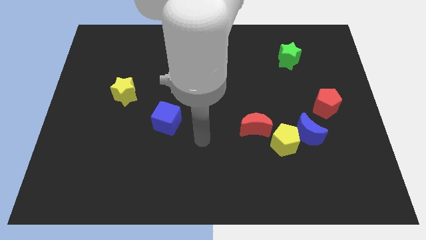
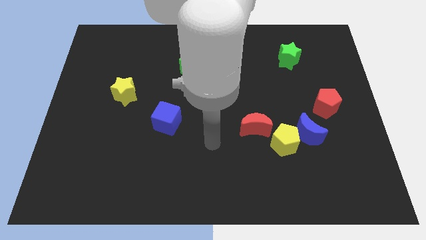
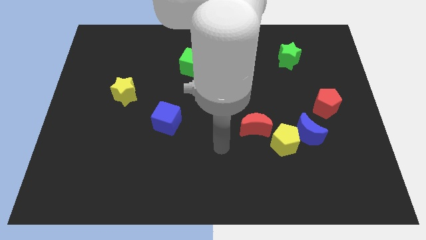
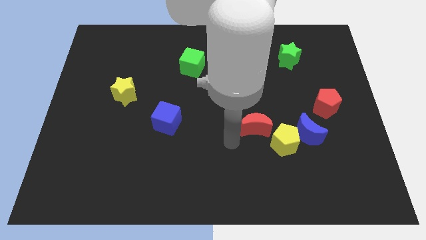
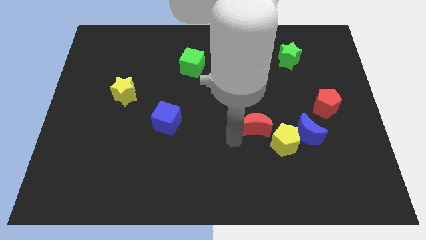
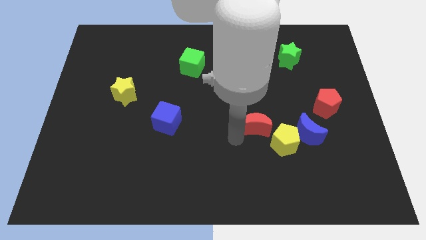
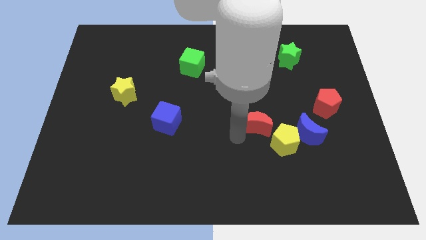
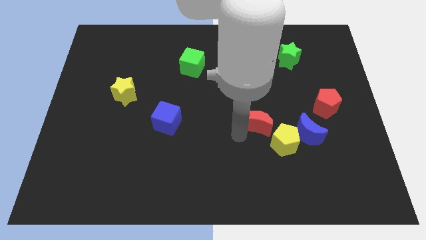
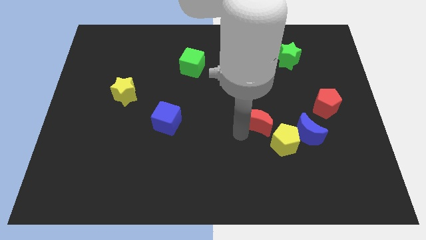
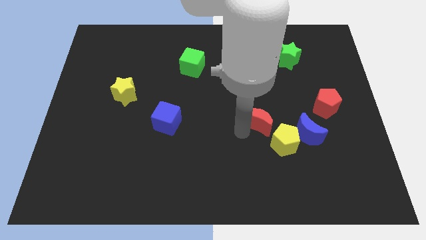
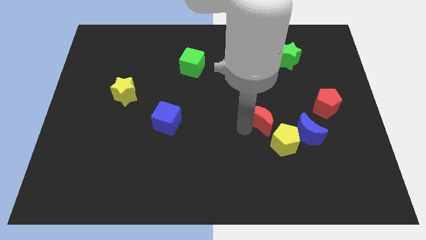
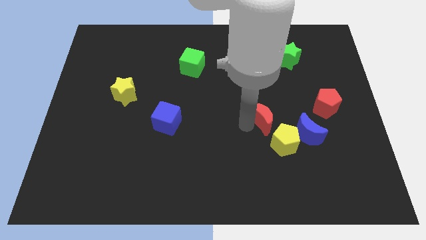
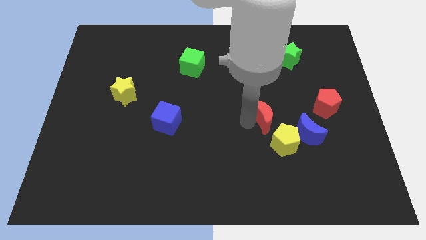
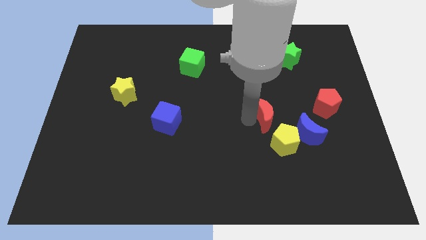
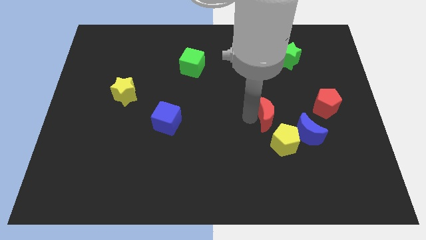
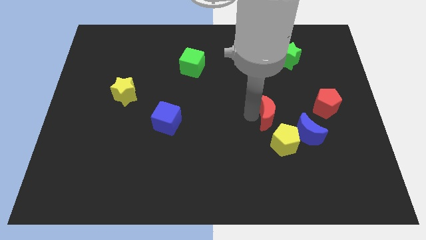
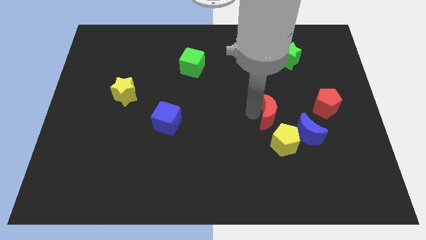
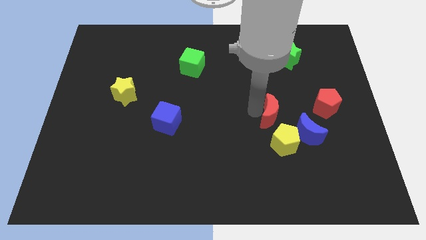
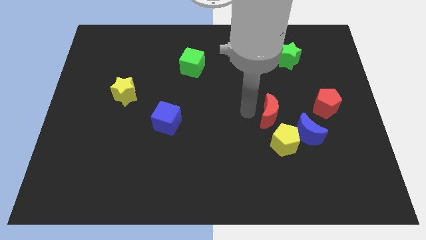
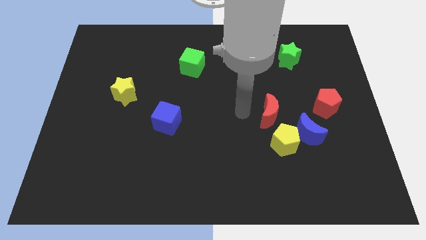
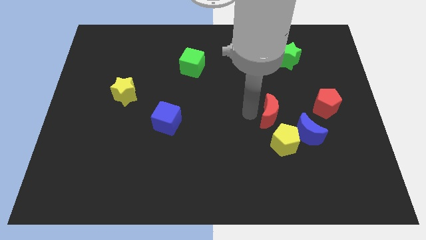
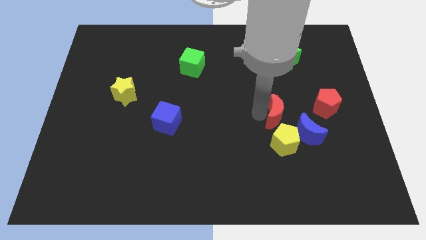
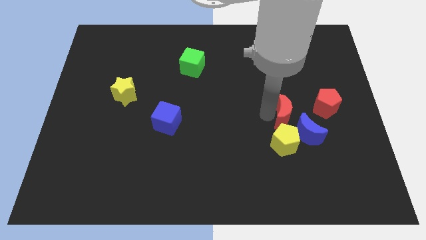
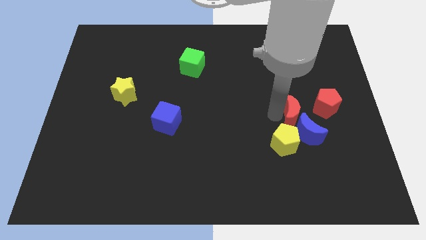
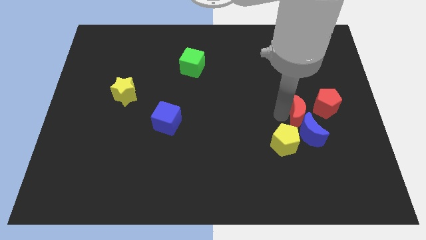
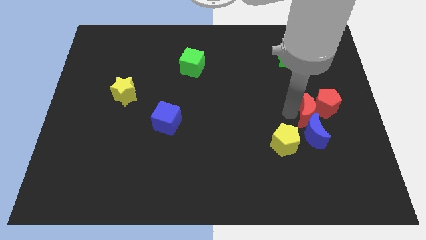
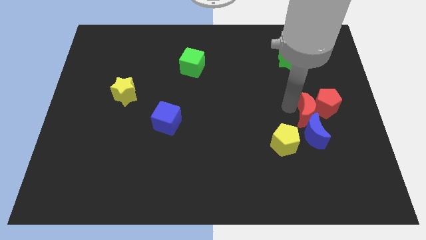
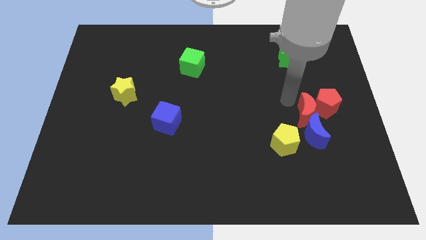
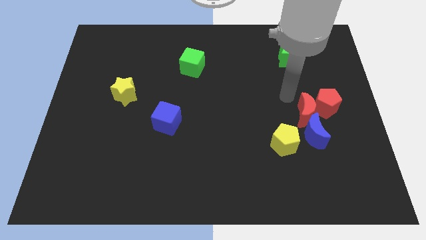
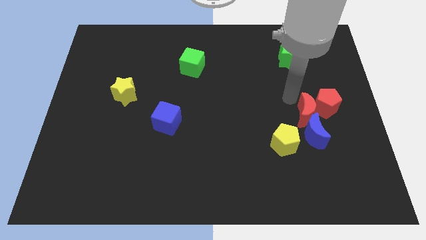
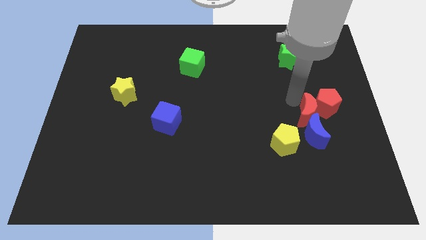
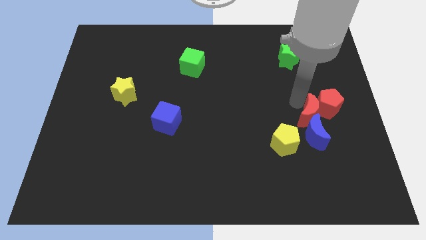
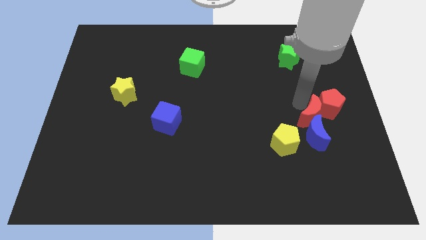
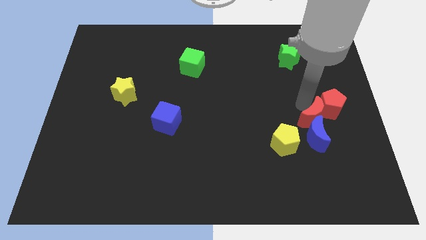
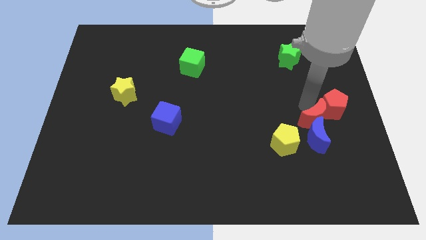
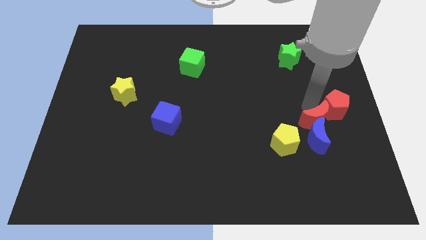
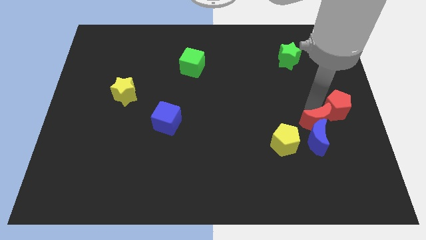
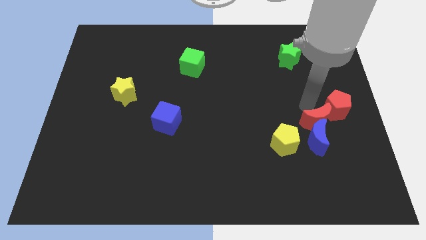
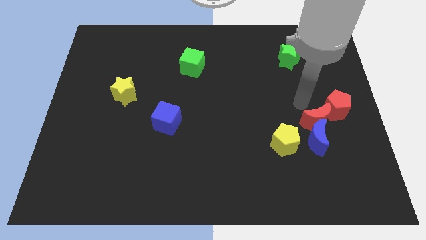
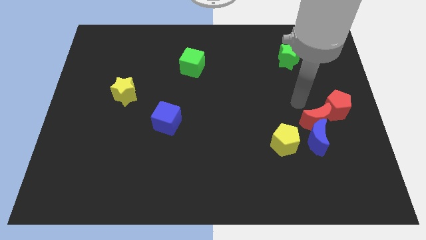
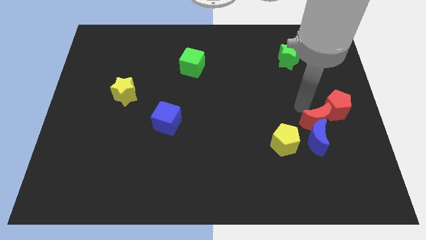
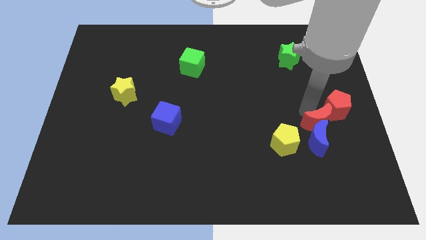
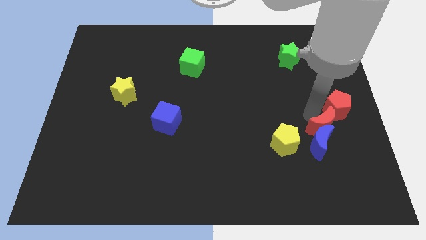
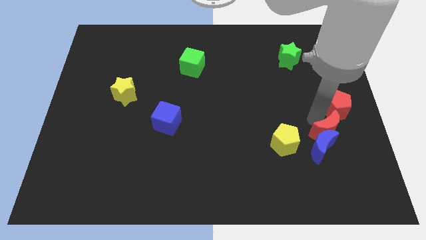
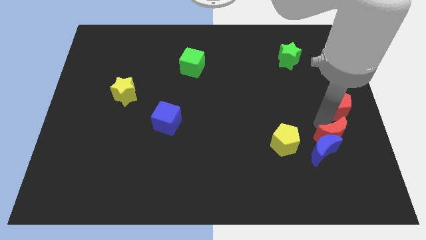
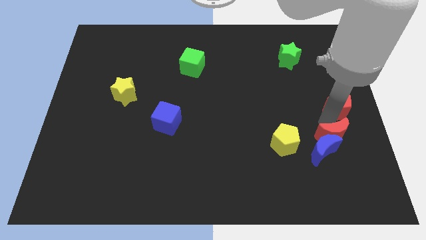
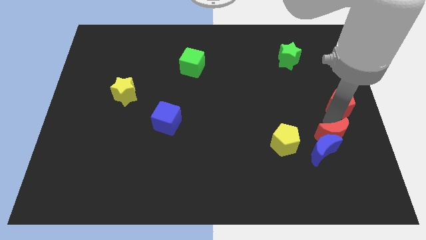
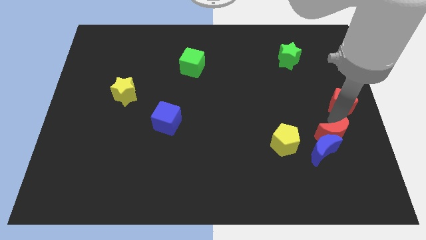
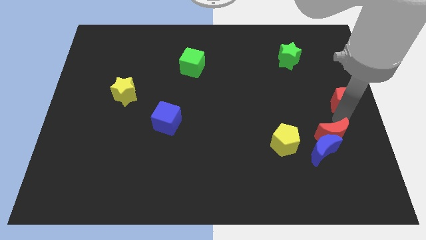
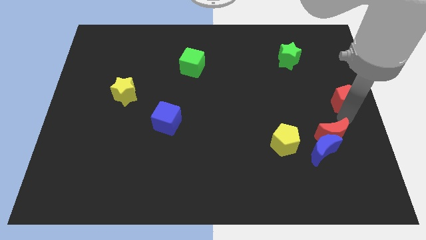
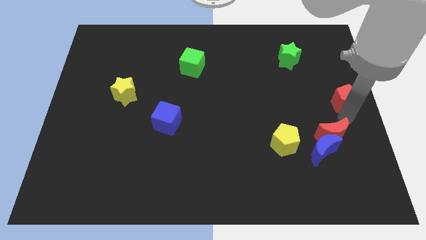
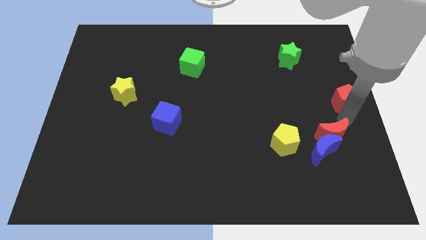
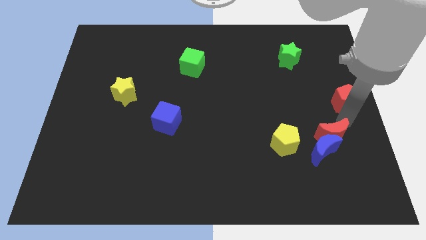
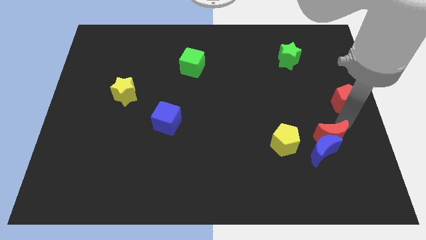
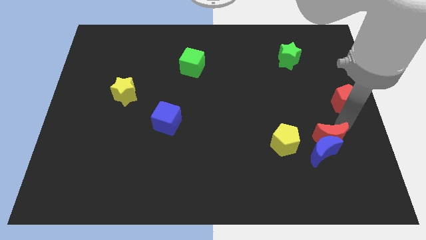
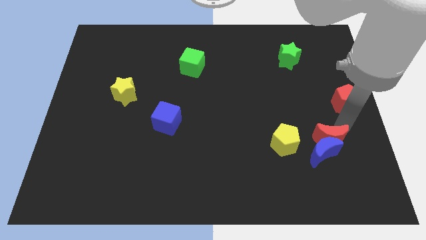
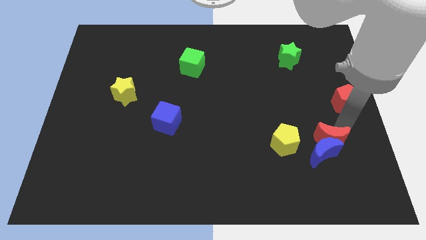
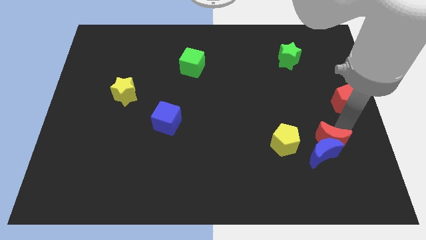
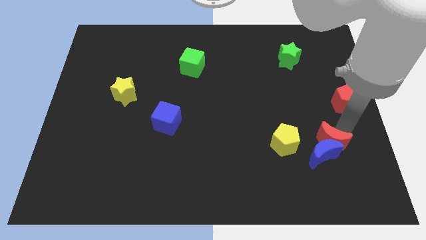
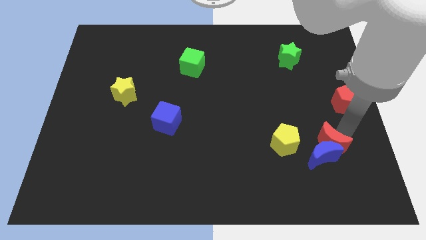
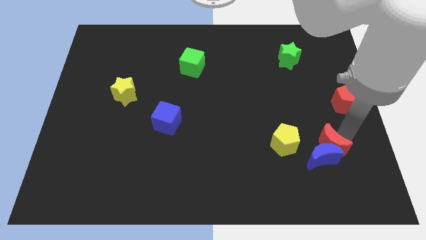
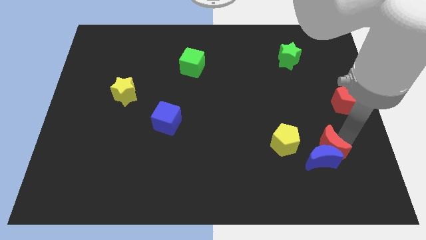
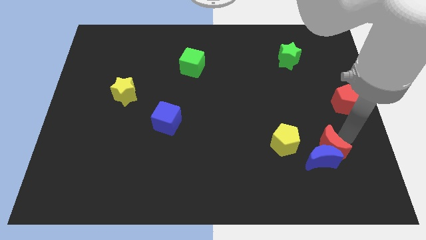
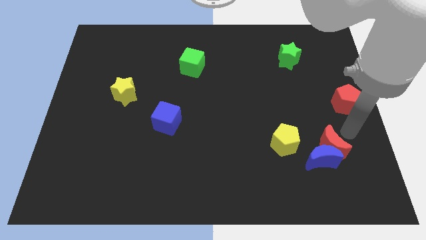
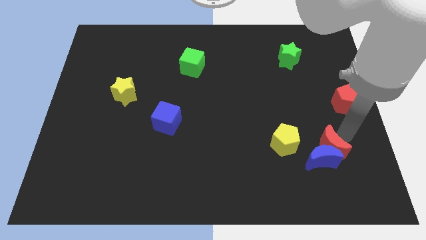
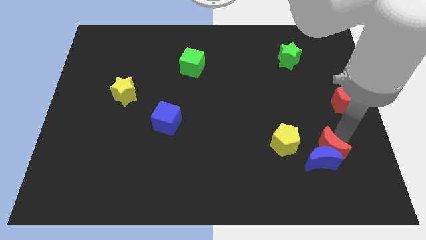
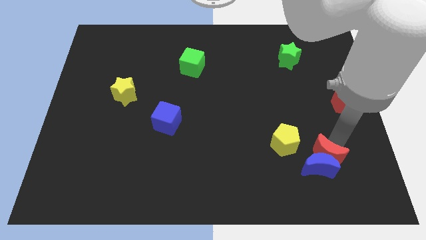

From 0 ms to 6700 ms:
slide the red moon diagonally down and to the right of the yellow pentagon
